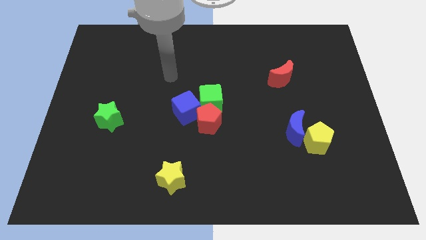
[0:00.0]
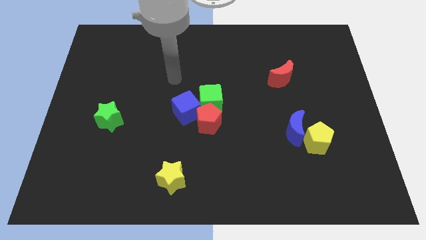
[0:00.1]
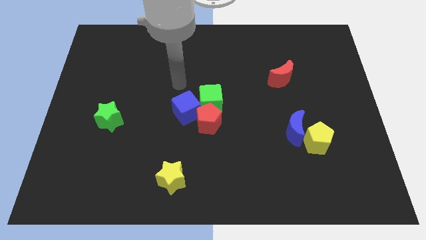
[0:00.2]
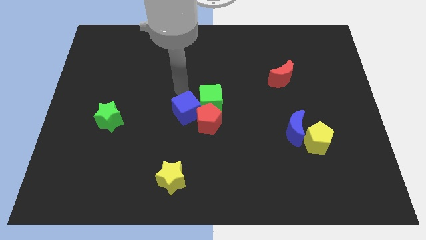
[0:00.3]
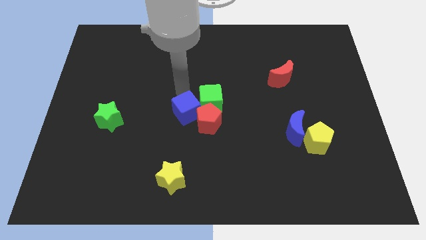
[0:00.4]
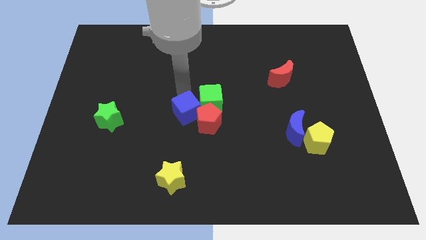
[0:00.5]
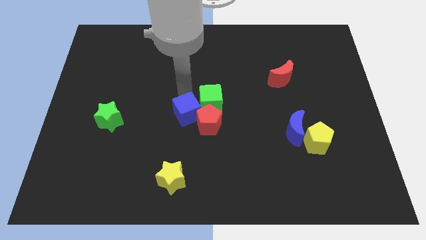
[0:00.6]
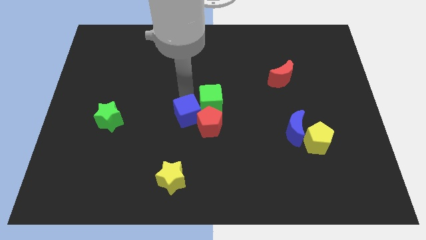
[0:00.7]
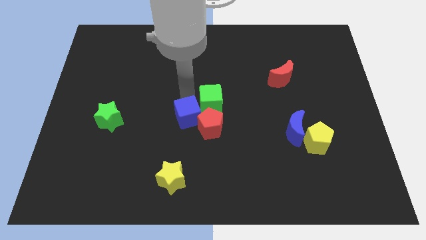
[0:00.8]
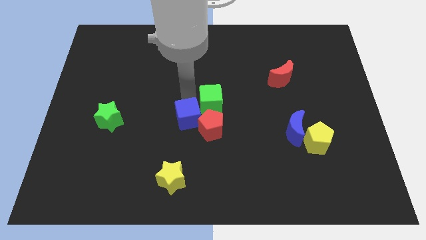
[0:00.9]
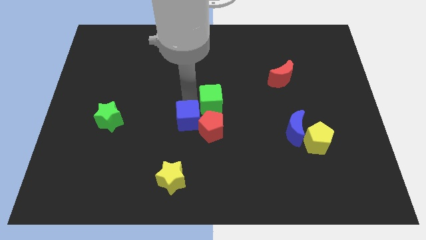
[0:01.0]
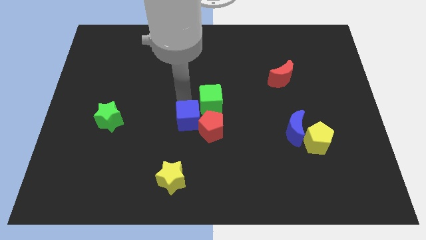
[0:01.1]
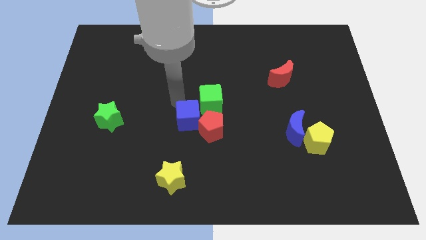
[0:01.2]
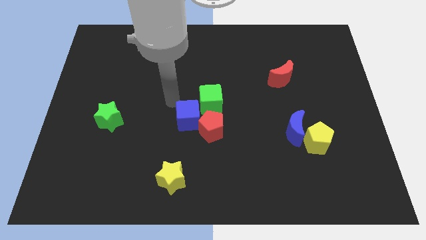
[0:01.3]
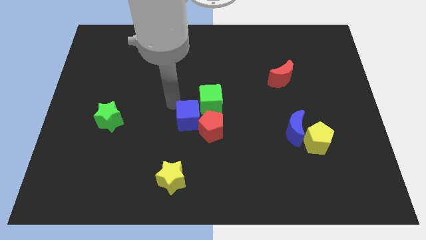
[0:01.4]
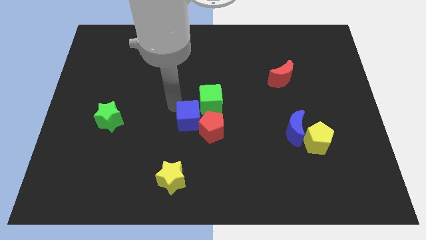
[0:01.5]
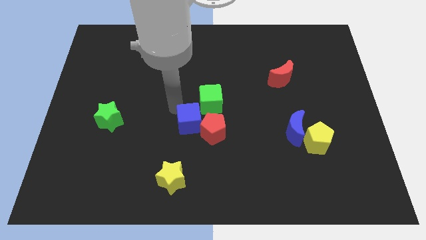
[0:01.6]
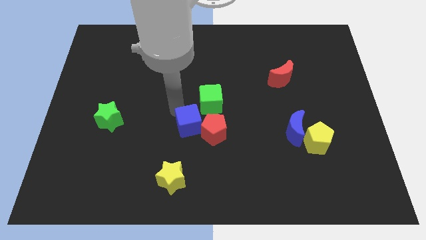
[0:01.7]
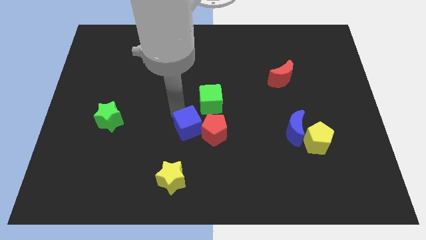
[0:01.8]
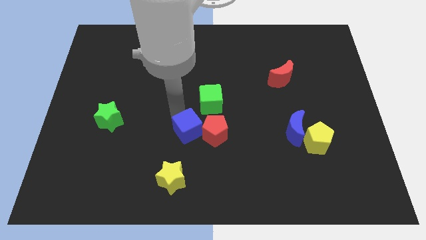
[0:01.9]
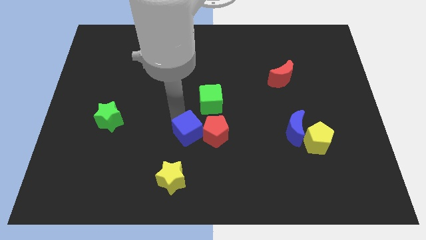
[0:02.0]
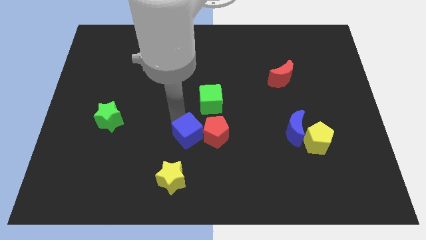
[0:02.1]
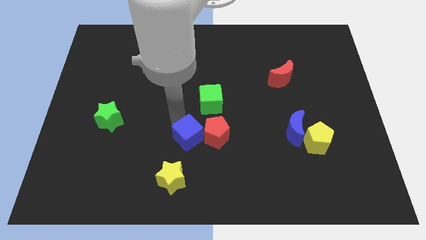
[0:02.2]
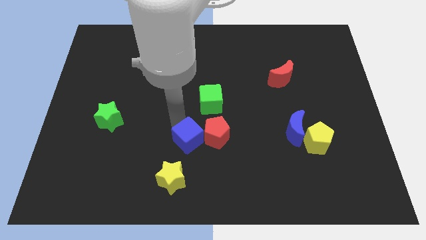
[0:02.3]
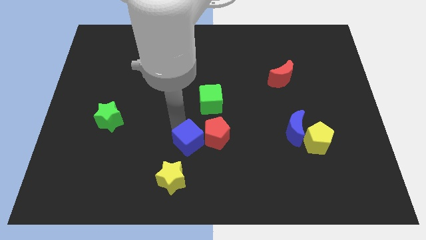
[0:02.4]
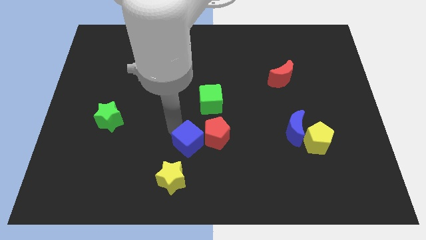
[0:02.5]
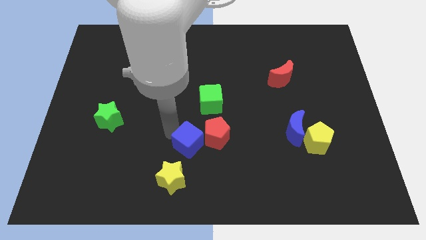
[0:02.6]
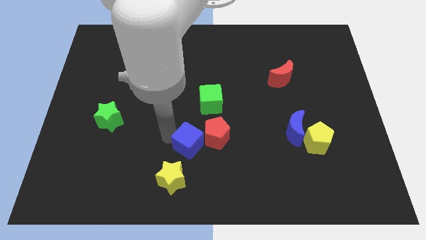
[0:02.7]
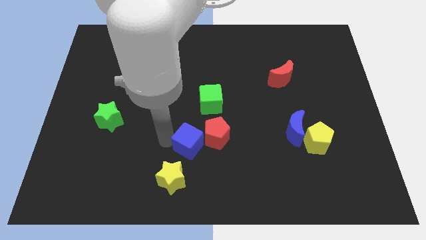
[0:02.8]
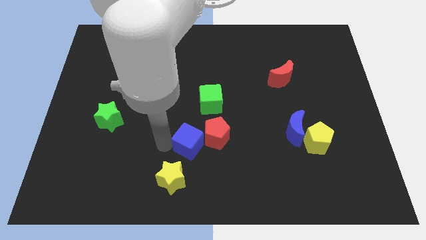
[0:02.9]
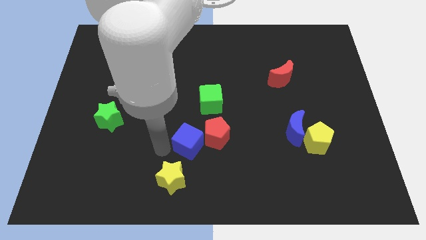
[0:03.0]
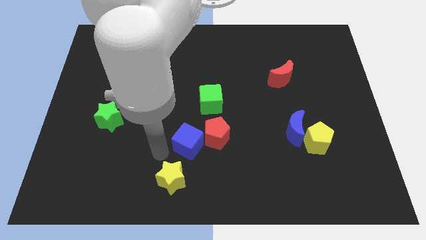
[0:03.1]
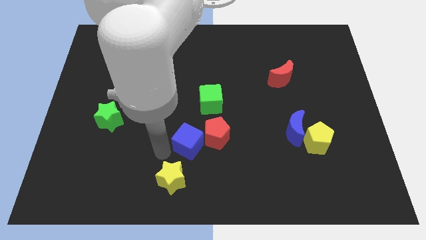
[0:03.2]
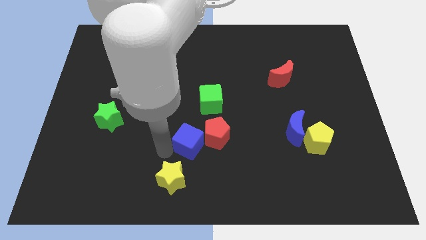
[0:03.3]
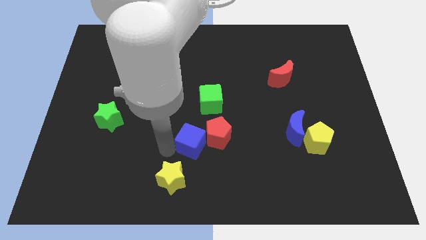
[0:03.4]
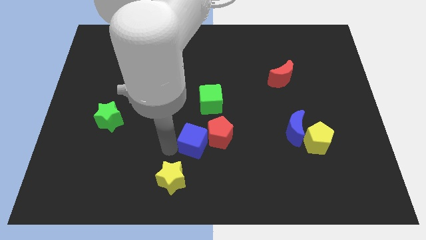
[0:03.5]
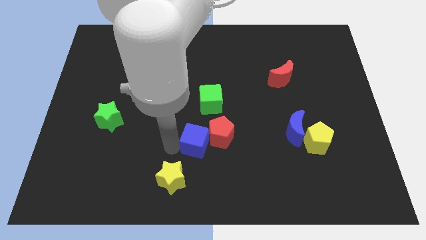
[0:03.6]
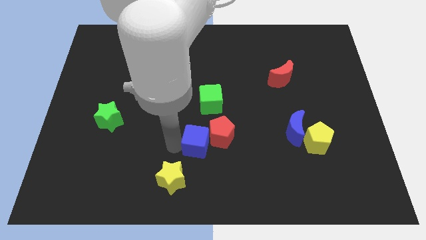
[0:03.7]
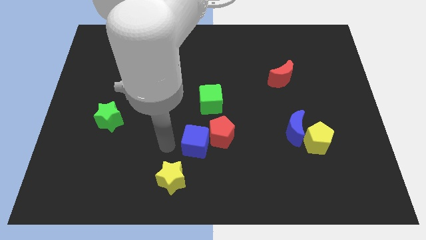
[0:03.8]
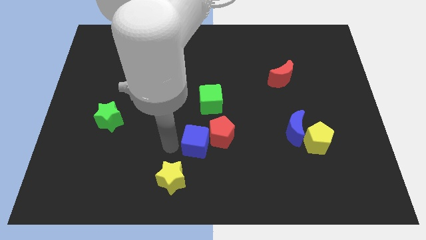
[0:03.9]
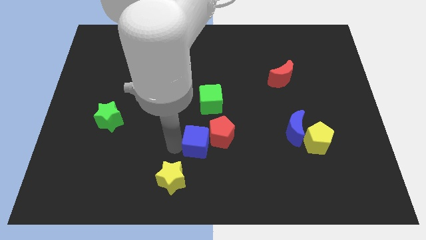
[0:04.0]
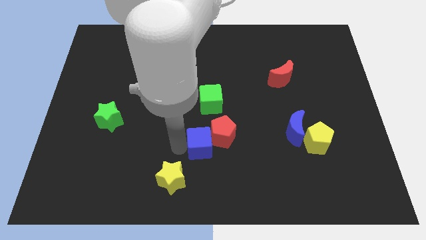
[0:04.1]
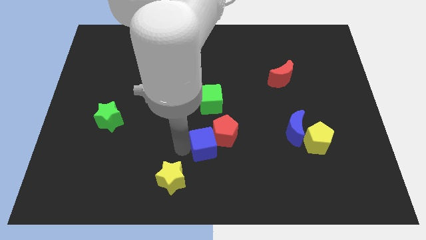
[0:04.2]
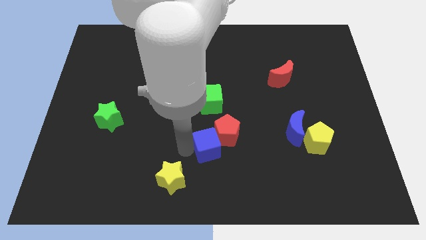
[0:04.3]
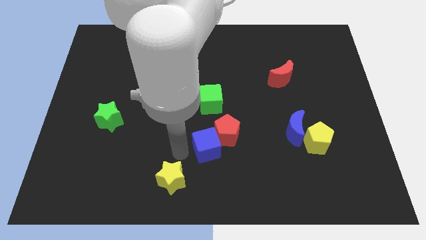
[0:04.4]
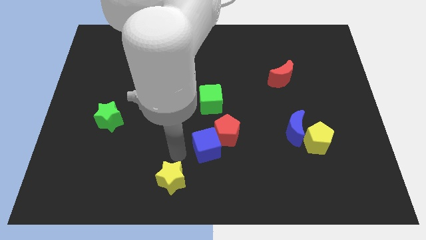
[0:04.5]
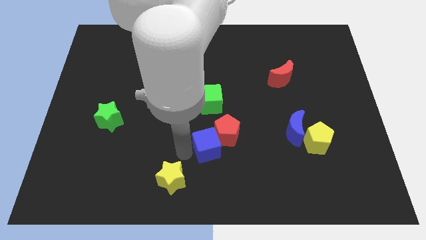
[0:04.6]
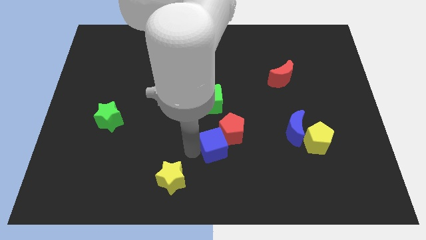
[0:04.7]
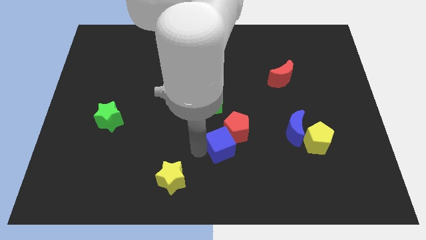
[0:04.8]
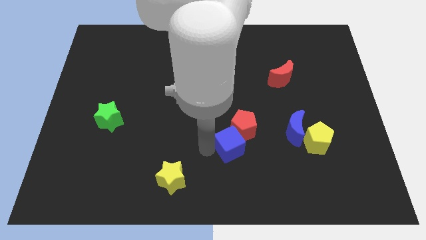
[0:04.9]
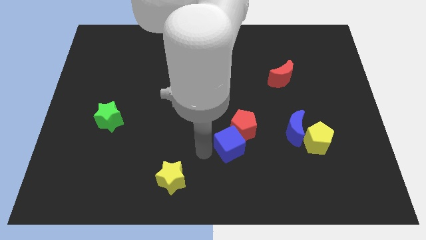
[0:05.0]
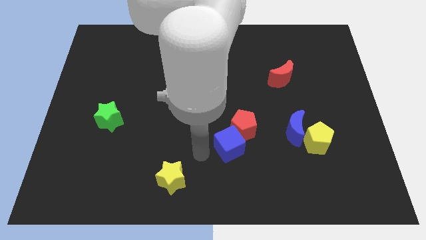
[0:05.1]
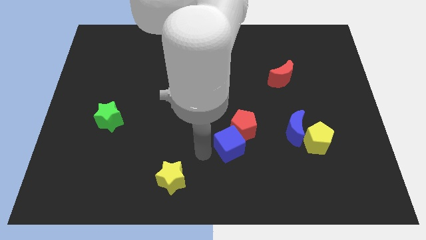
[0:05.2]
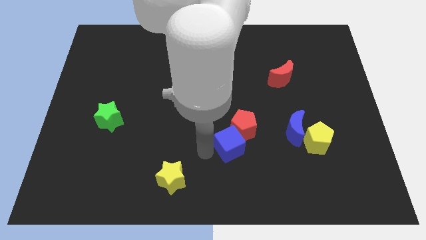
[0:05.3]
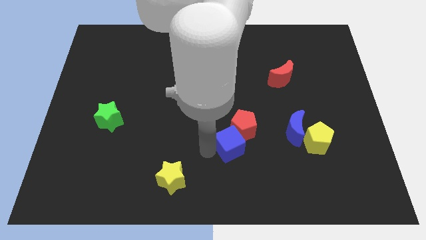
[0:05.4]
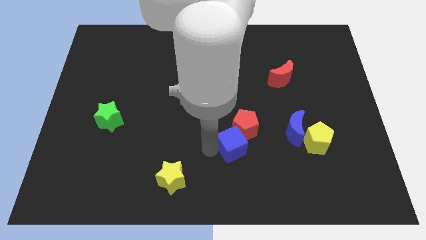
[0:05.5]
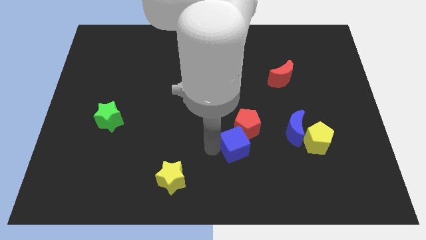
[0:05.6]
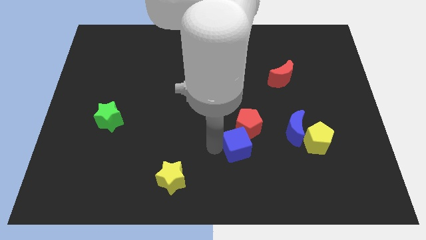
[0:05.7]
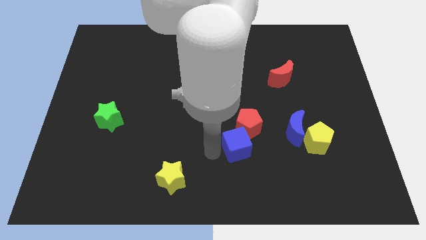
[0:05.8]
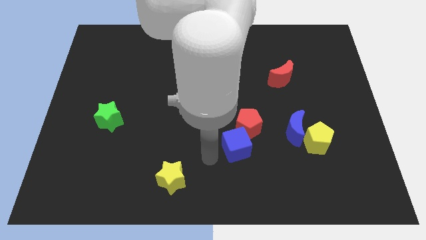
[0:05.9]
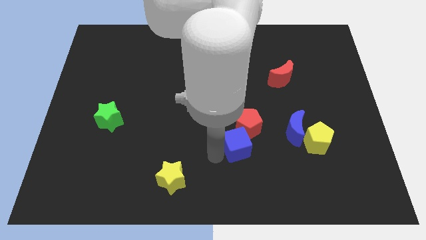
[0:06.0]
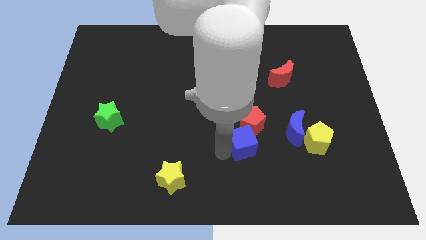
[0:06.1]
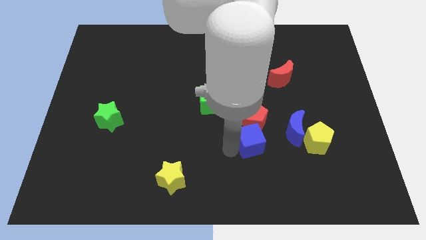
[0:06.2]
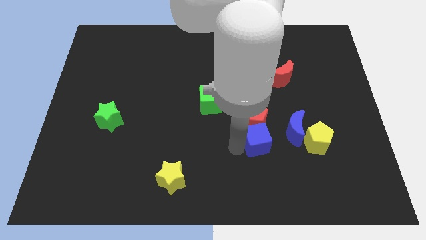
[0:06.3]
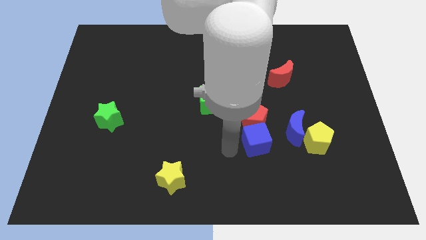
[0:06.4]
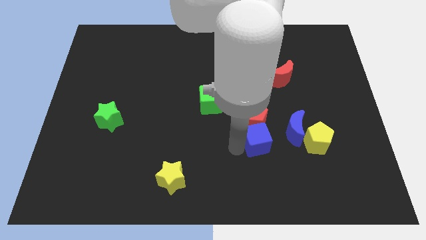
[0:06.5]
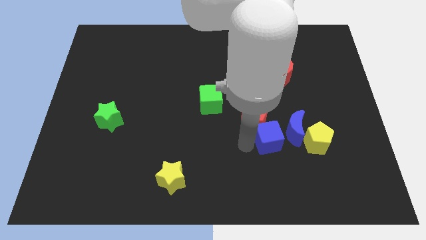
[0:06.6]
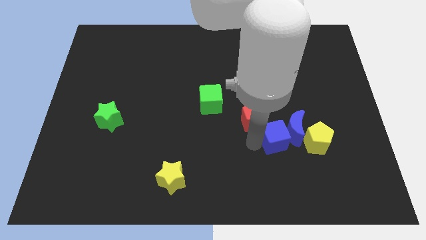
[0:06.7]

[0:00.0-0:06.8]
put the blue cube next to the blue moon

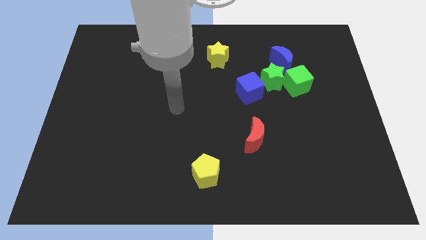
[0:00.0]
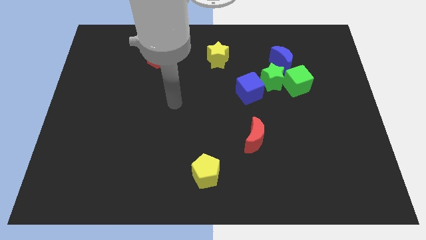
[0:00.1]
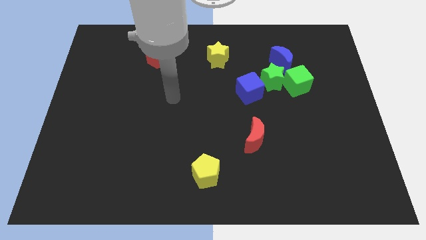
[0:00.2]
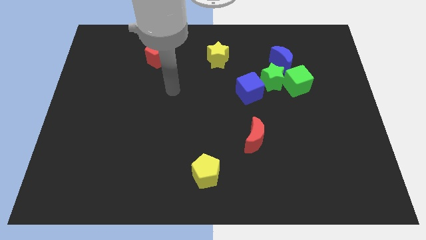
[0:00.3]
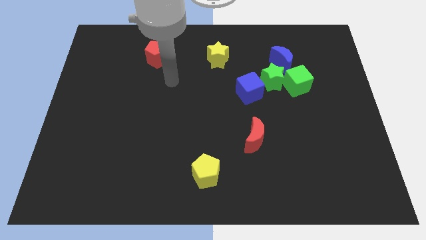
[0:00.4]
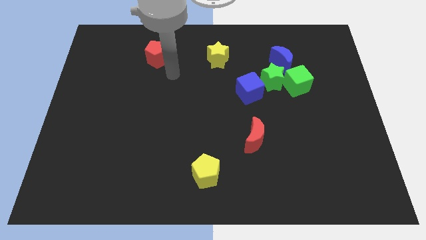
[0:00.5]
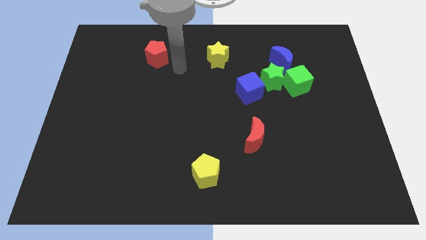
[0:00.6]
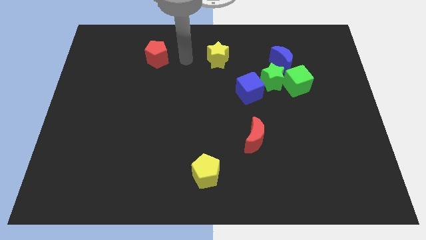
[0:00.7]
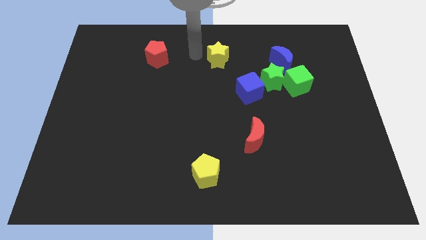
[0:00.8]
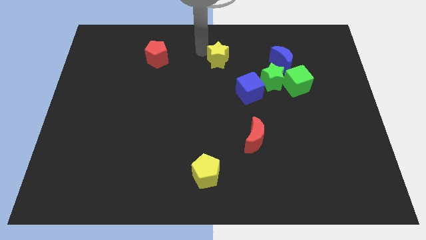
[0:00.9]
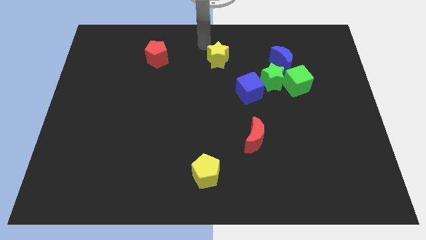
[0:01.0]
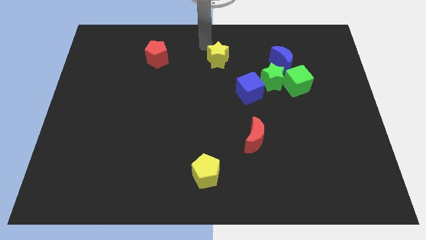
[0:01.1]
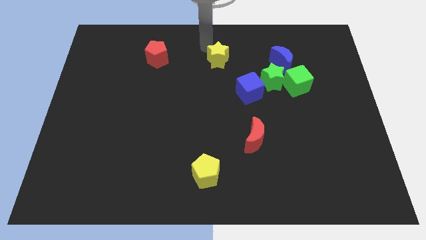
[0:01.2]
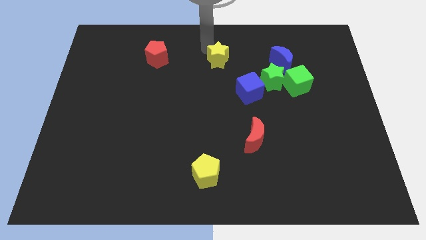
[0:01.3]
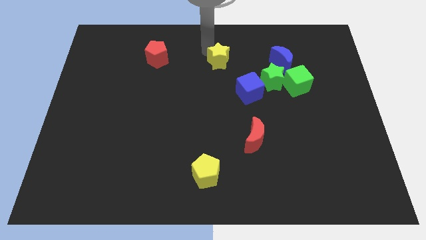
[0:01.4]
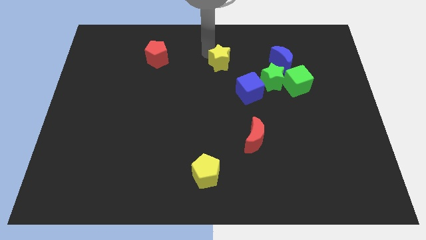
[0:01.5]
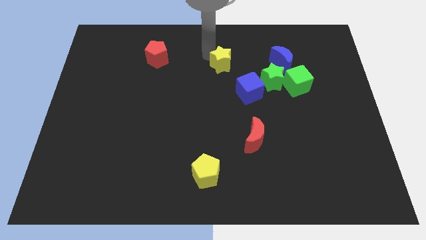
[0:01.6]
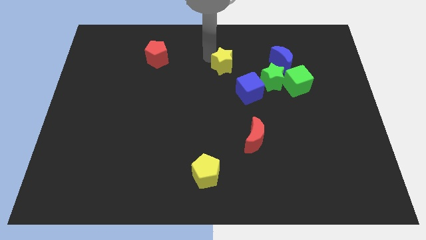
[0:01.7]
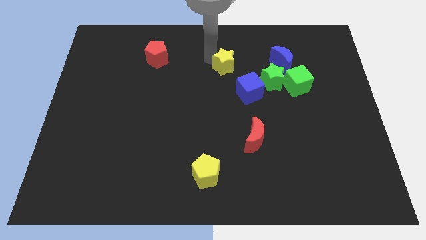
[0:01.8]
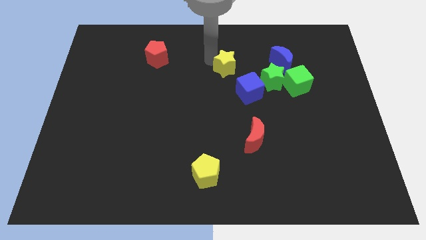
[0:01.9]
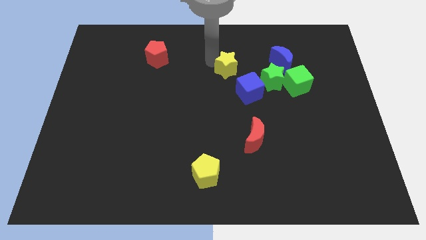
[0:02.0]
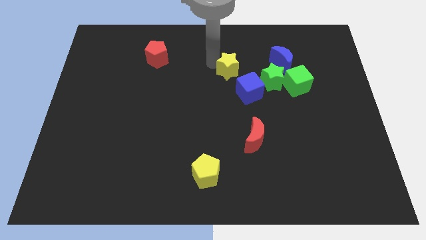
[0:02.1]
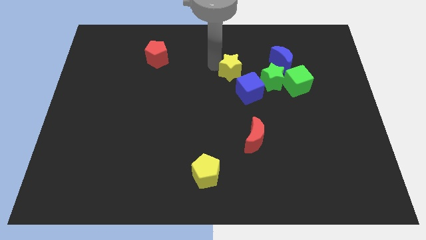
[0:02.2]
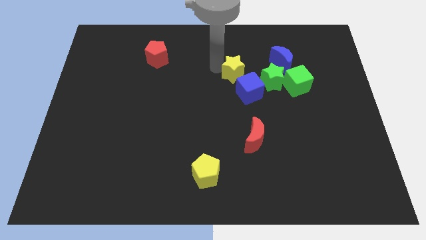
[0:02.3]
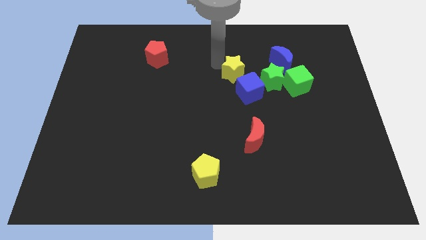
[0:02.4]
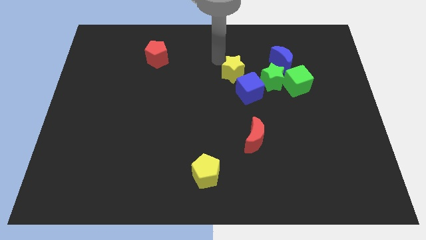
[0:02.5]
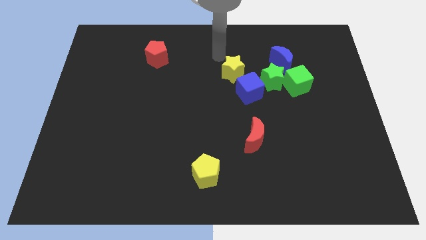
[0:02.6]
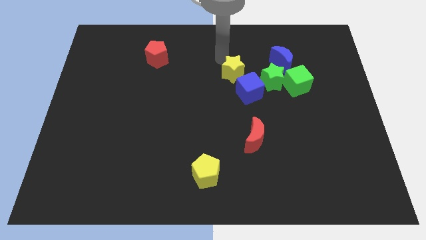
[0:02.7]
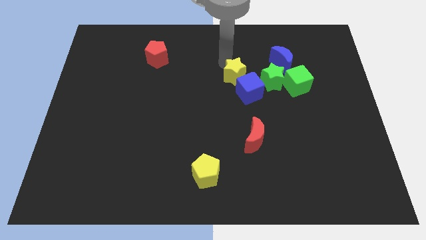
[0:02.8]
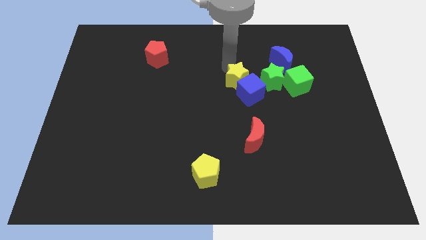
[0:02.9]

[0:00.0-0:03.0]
put the yellow star close to the blue cube
